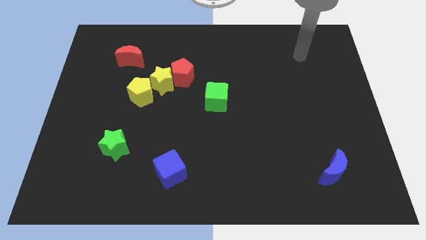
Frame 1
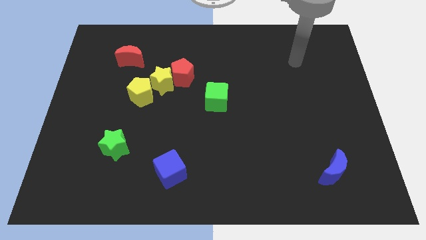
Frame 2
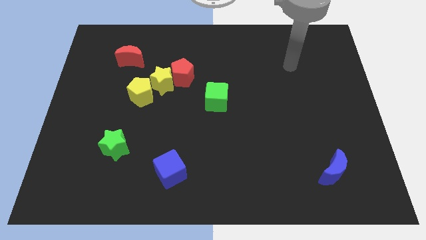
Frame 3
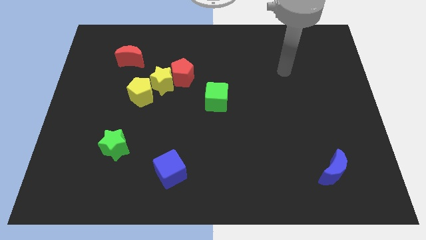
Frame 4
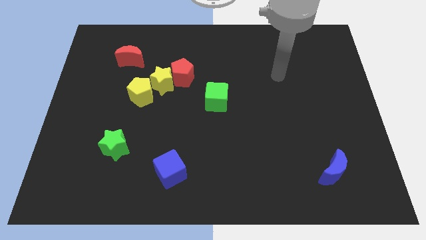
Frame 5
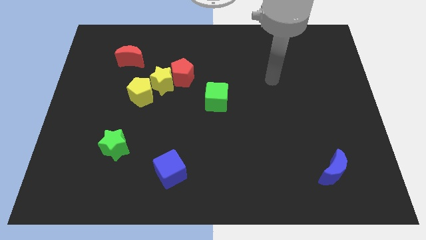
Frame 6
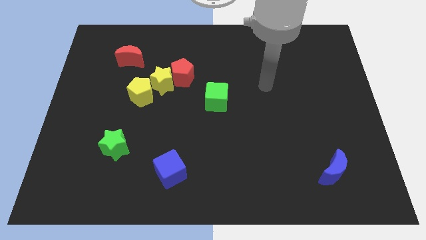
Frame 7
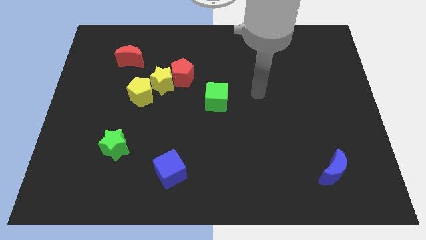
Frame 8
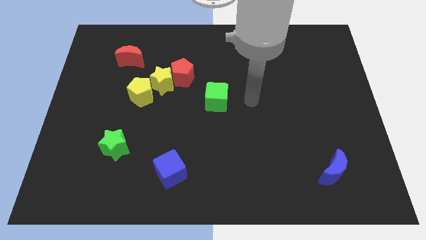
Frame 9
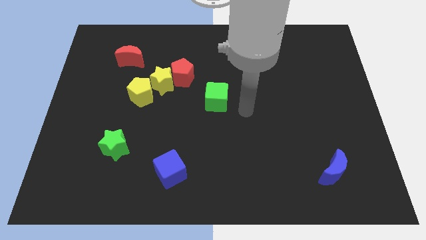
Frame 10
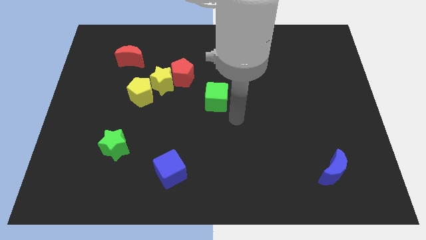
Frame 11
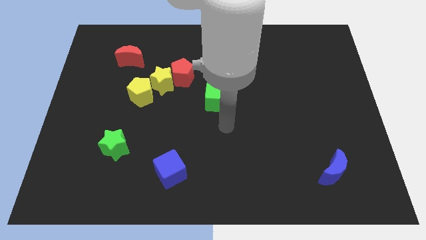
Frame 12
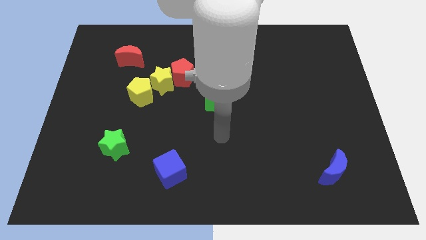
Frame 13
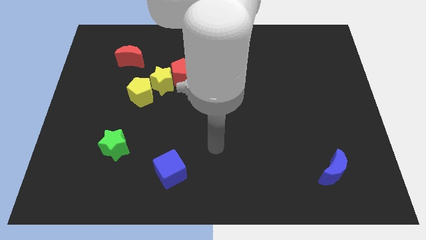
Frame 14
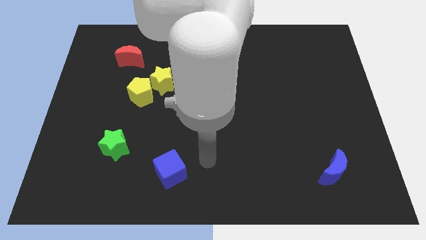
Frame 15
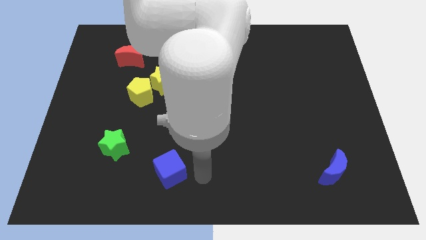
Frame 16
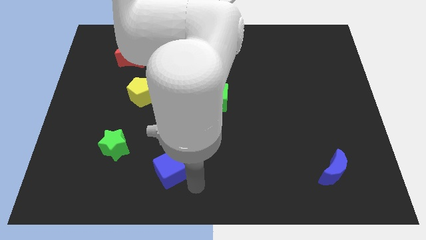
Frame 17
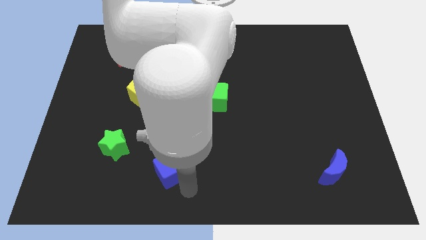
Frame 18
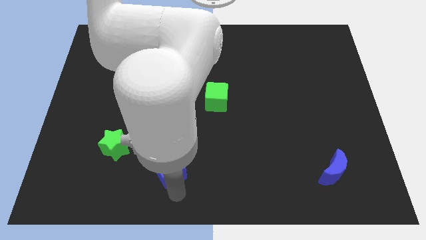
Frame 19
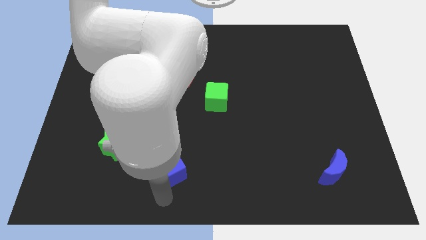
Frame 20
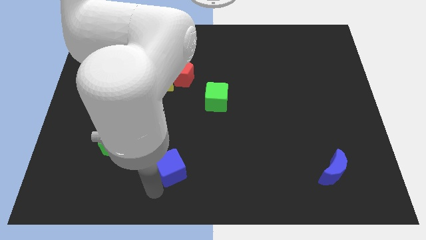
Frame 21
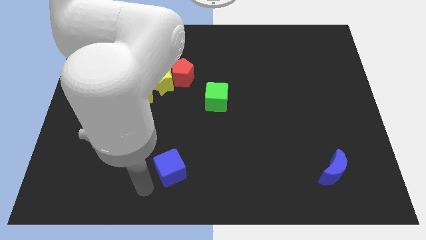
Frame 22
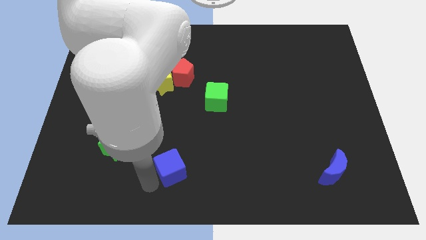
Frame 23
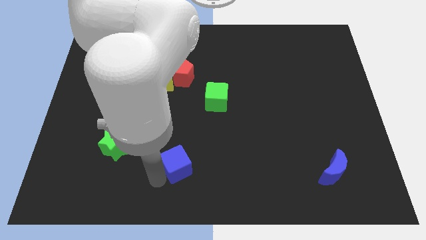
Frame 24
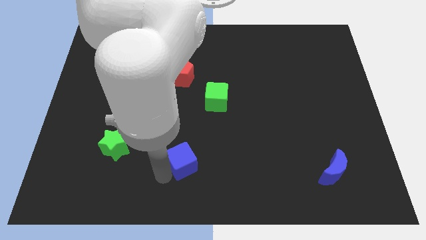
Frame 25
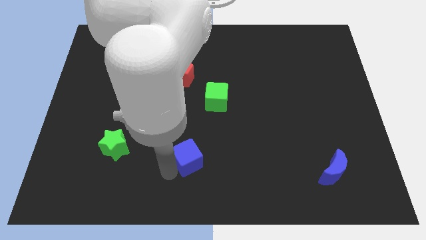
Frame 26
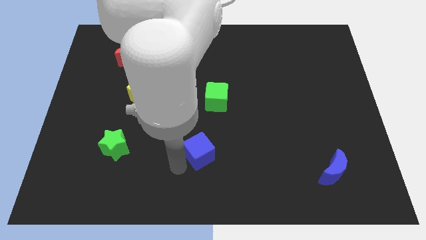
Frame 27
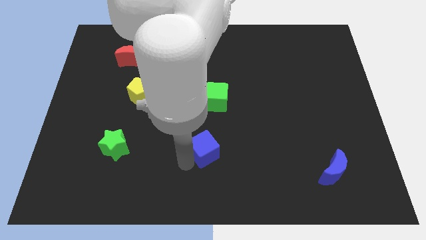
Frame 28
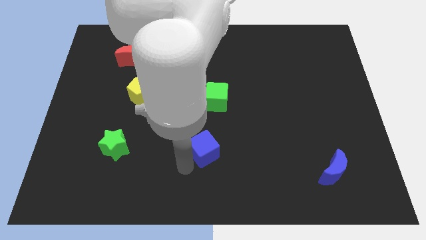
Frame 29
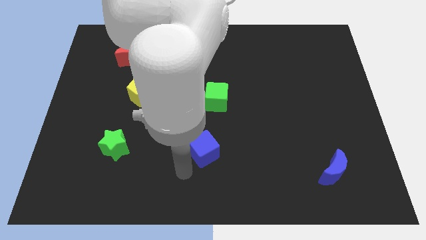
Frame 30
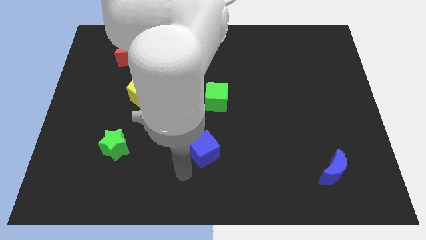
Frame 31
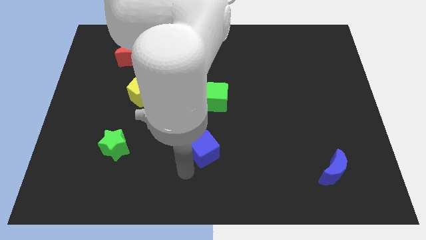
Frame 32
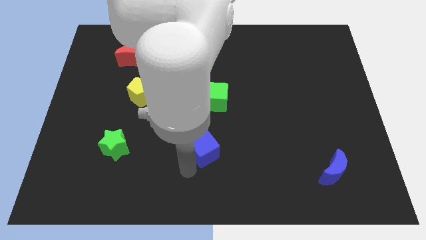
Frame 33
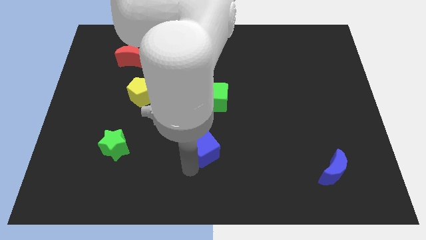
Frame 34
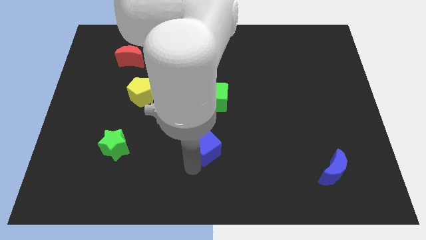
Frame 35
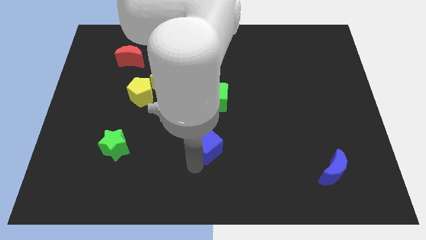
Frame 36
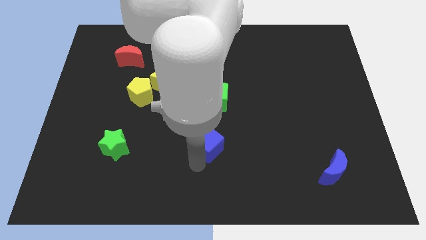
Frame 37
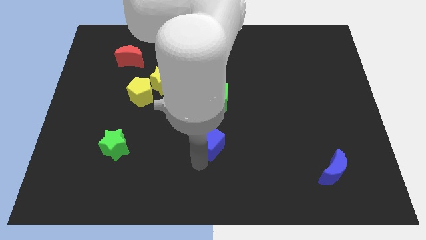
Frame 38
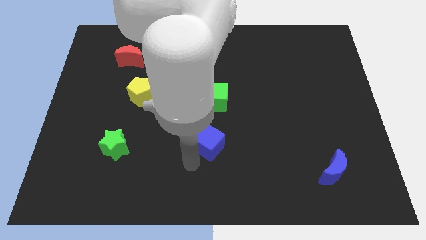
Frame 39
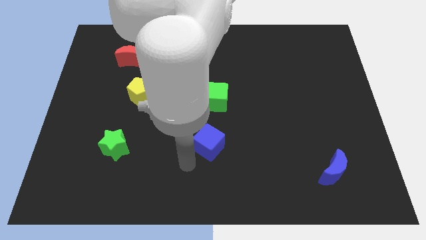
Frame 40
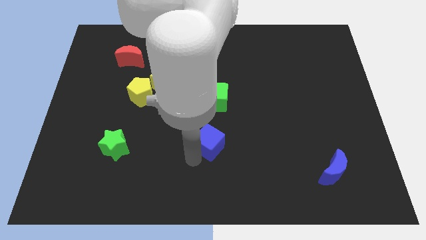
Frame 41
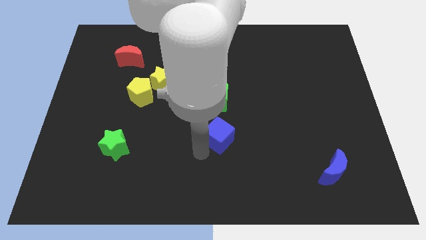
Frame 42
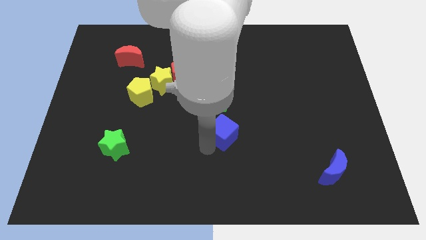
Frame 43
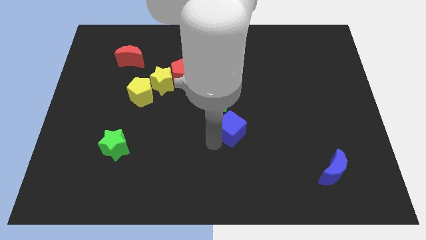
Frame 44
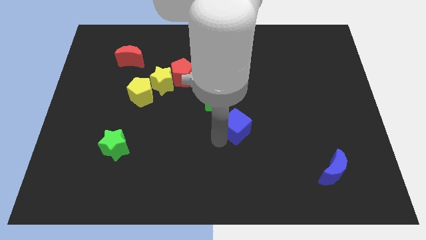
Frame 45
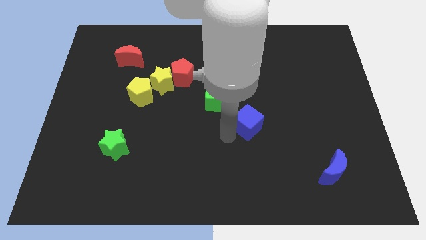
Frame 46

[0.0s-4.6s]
move the blue cube up and then to the right

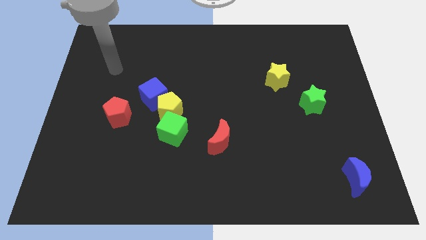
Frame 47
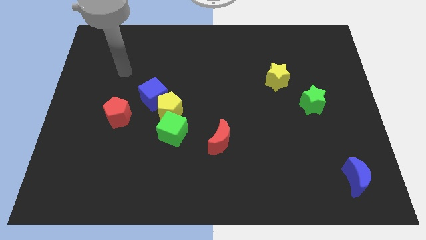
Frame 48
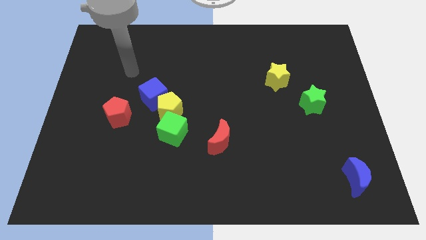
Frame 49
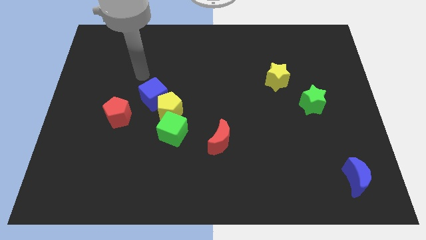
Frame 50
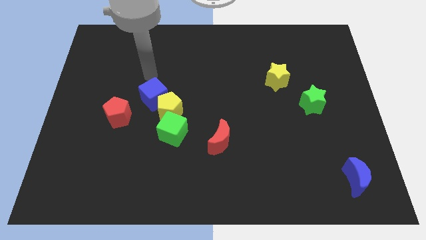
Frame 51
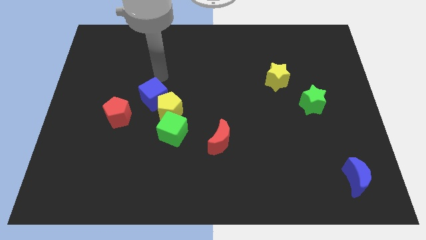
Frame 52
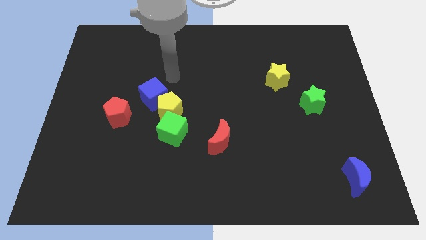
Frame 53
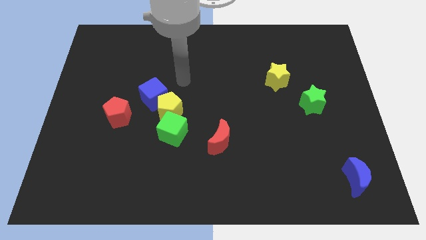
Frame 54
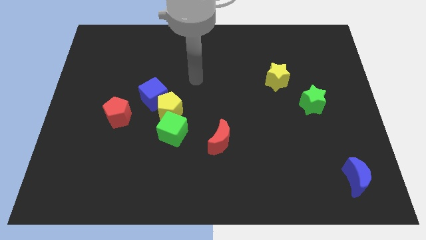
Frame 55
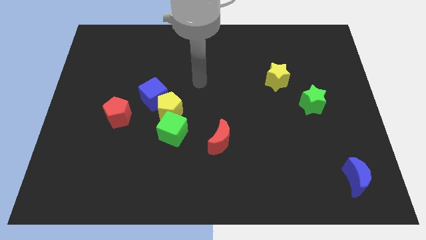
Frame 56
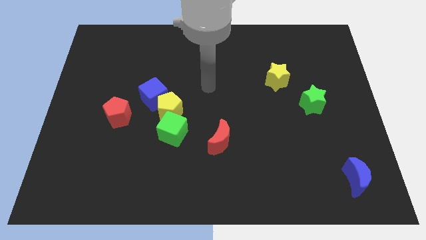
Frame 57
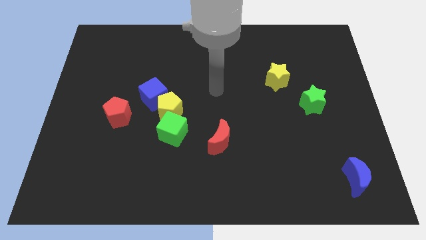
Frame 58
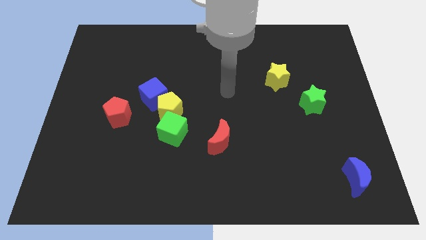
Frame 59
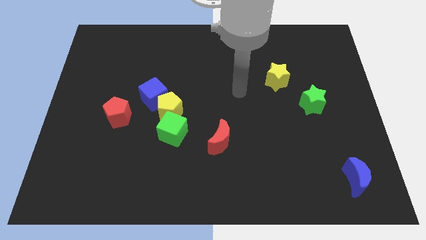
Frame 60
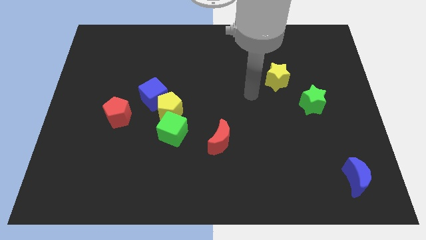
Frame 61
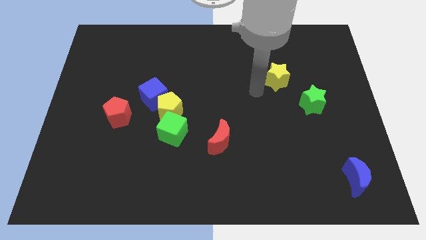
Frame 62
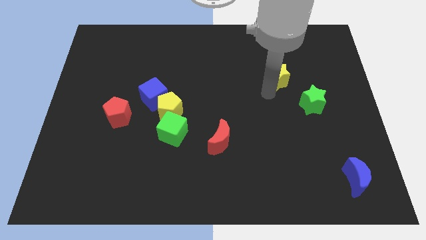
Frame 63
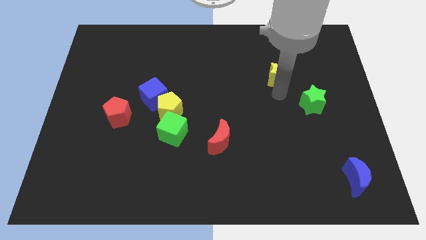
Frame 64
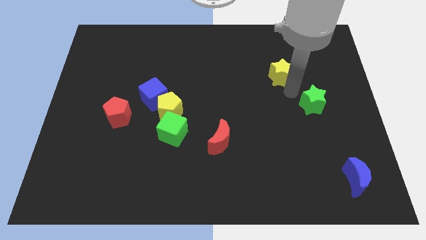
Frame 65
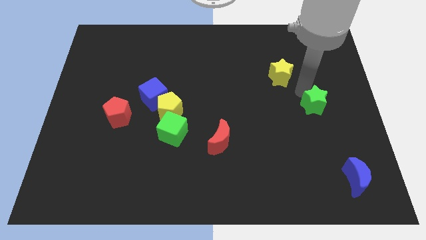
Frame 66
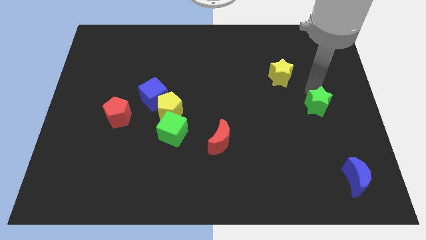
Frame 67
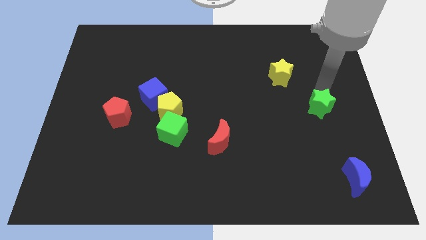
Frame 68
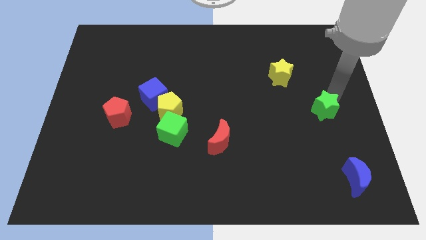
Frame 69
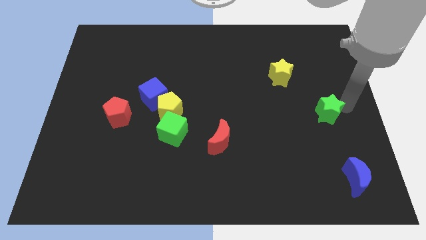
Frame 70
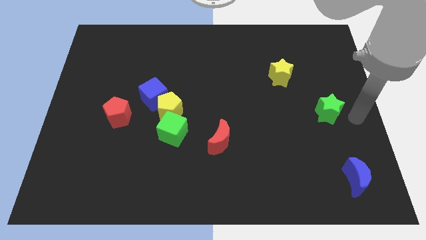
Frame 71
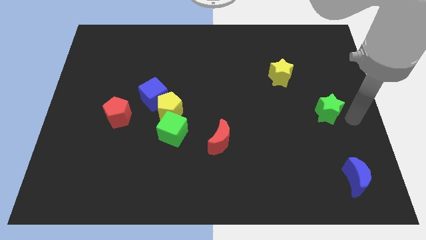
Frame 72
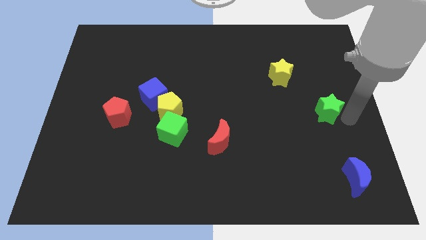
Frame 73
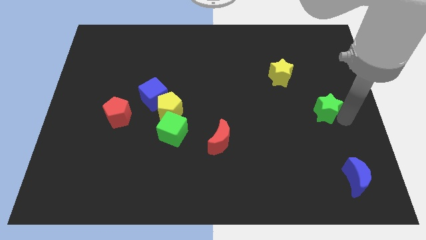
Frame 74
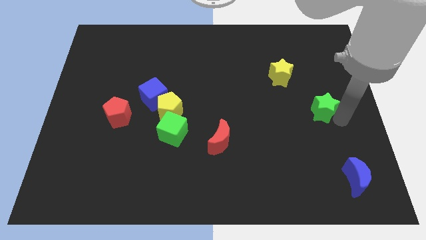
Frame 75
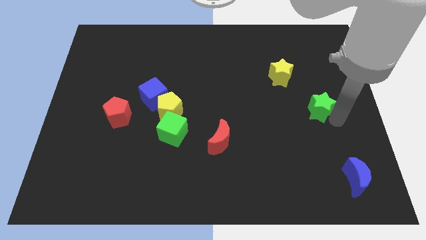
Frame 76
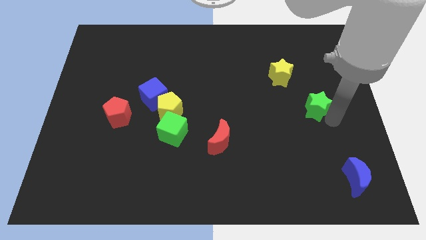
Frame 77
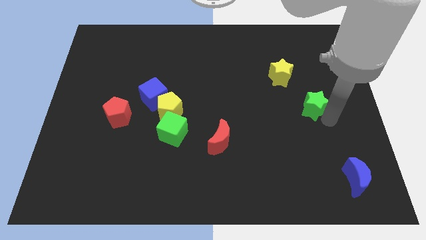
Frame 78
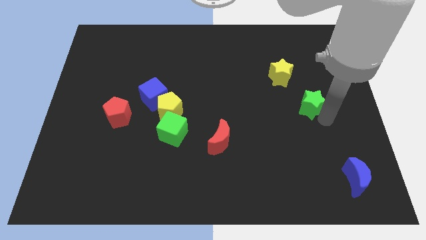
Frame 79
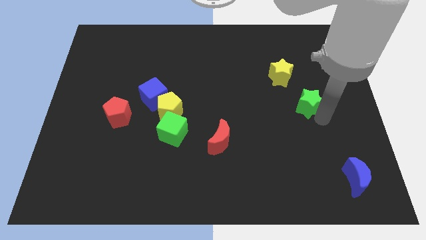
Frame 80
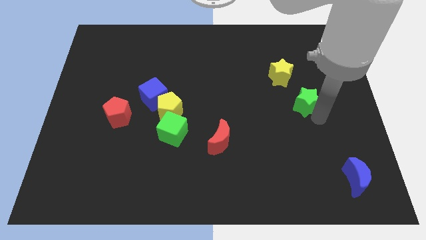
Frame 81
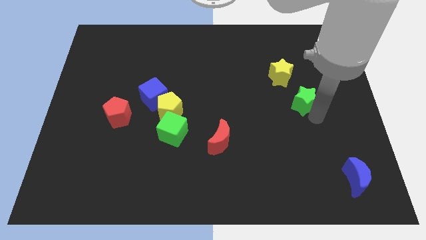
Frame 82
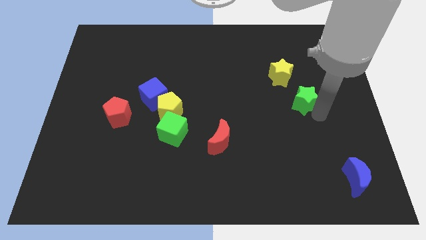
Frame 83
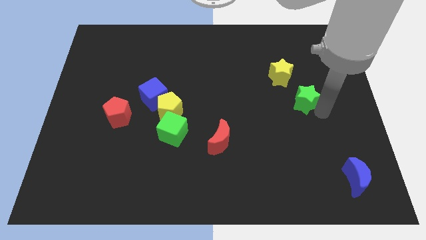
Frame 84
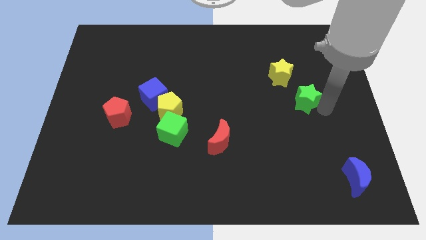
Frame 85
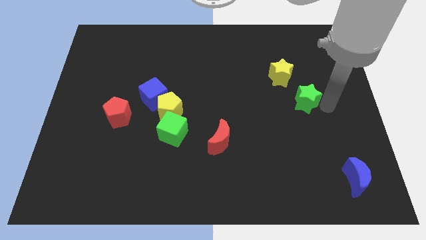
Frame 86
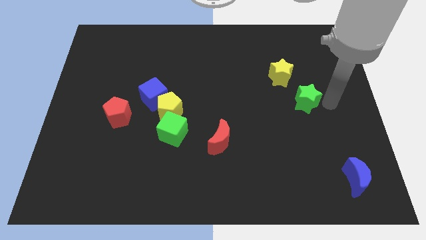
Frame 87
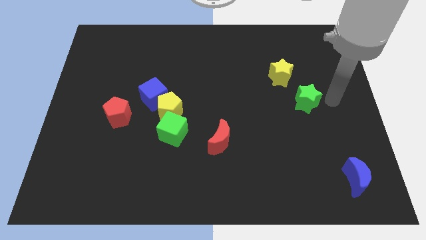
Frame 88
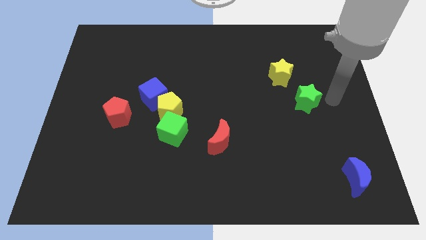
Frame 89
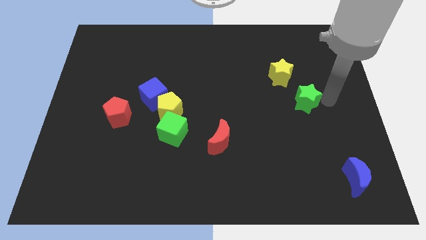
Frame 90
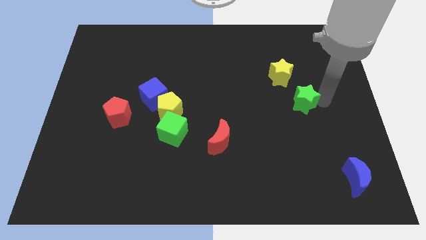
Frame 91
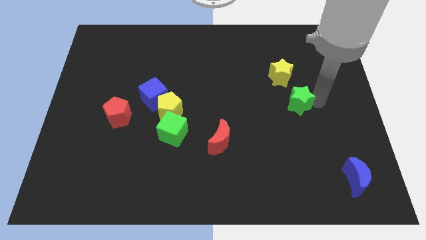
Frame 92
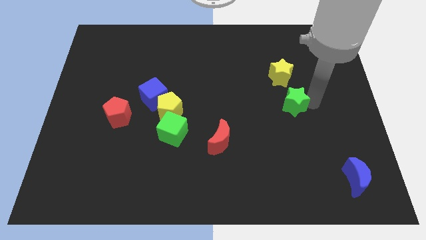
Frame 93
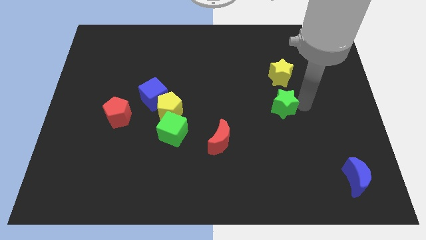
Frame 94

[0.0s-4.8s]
push the green star a little bit to the left
